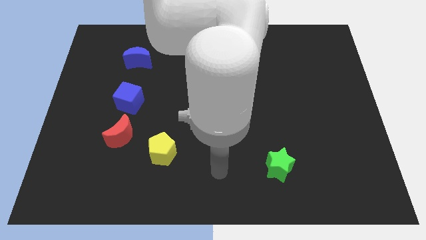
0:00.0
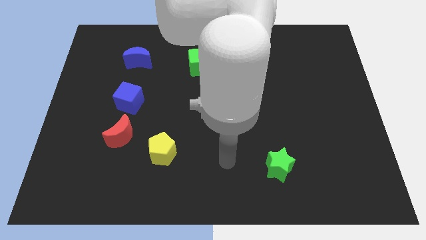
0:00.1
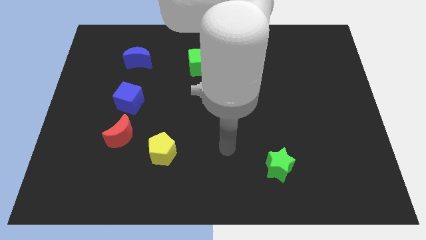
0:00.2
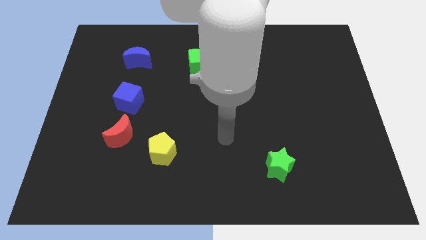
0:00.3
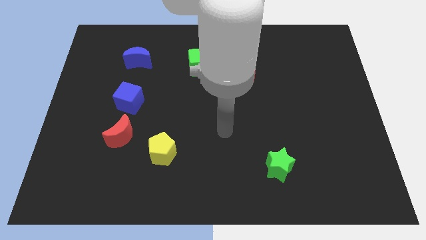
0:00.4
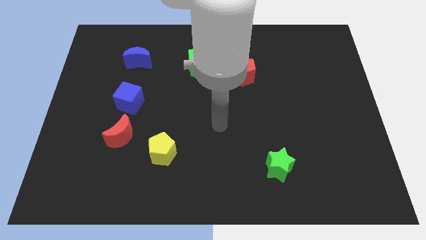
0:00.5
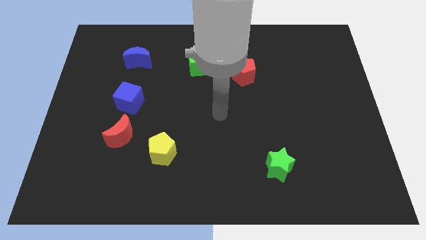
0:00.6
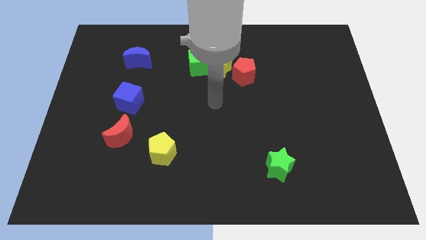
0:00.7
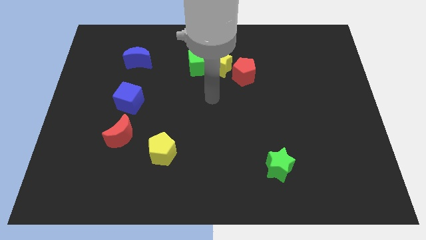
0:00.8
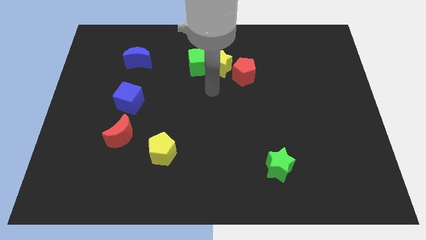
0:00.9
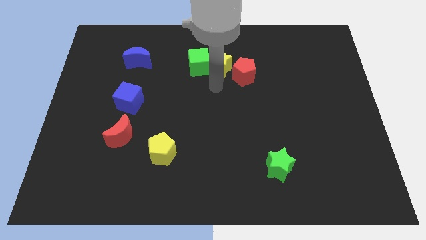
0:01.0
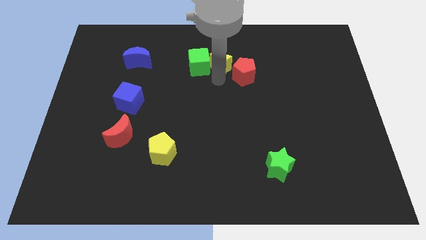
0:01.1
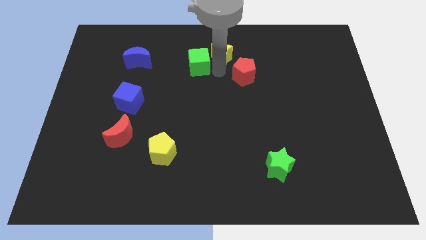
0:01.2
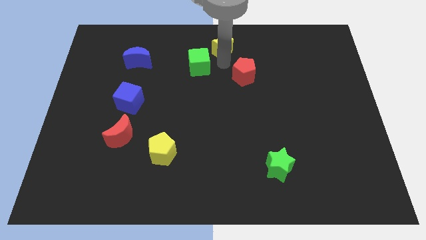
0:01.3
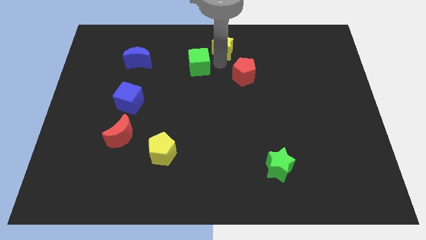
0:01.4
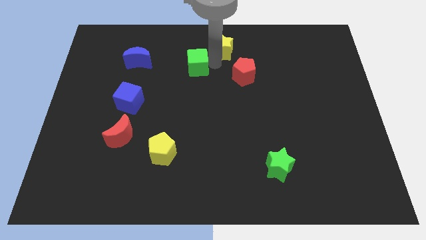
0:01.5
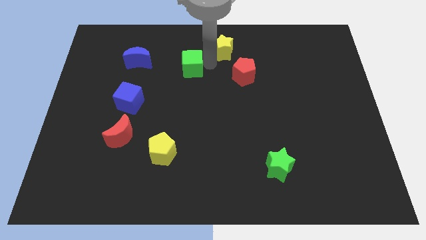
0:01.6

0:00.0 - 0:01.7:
separate the green cube from the yellow star

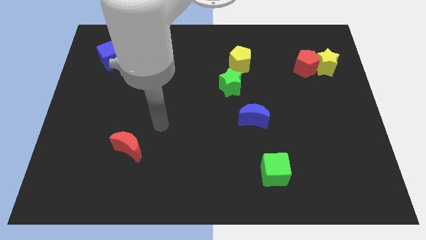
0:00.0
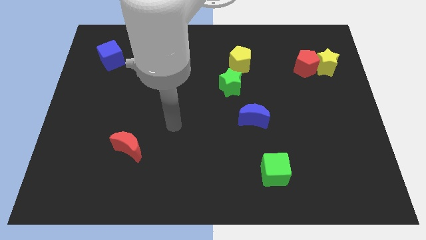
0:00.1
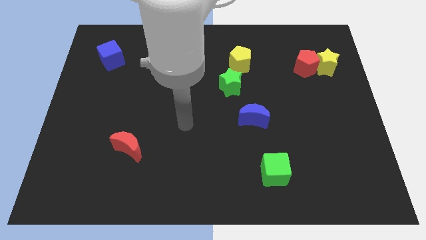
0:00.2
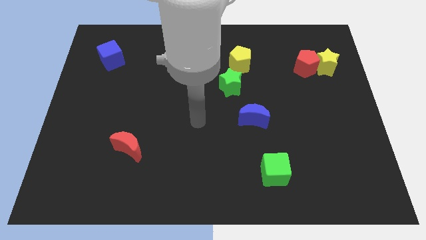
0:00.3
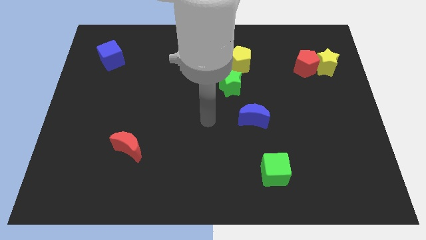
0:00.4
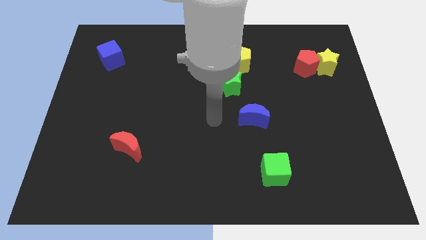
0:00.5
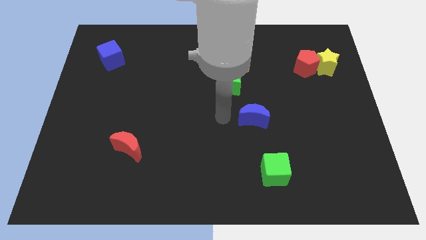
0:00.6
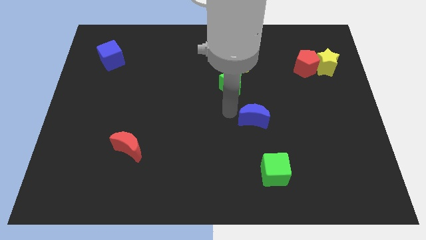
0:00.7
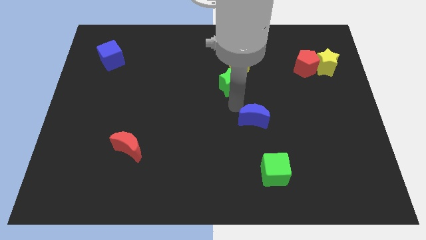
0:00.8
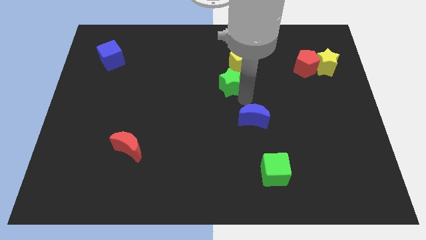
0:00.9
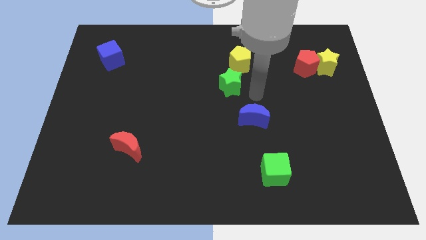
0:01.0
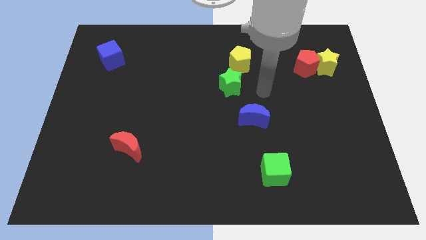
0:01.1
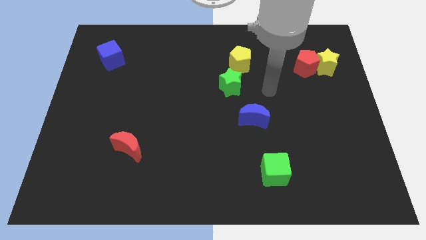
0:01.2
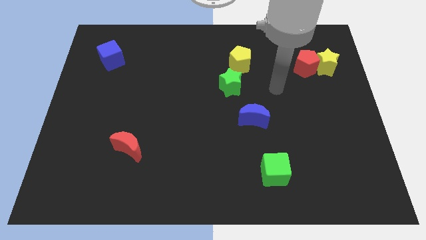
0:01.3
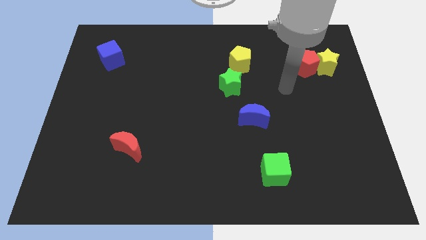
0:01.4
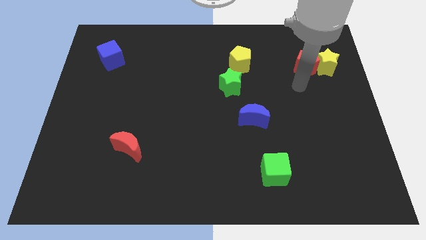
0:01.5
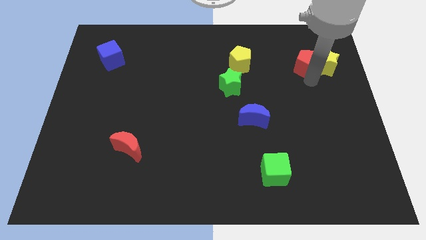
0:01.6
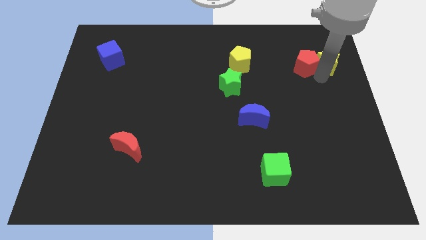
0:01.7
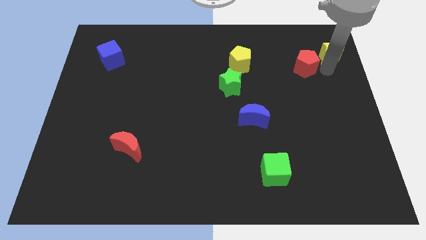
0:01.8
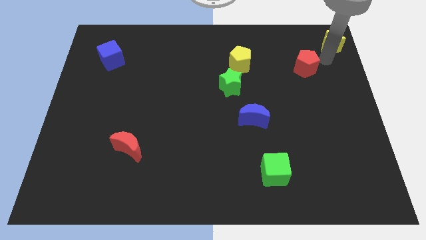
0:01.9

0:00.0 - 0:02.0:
pull the red pentagon apart from the yellow star

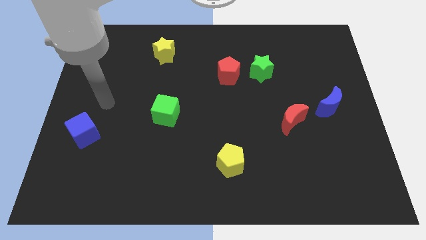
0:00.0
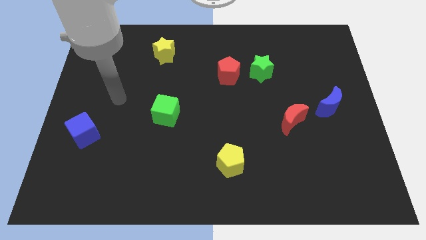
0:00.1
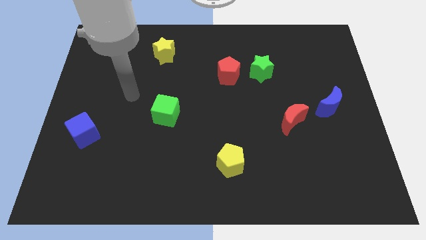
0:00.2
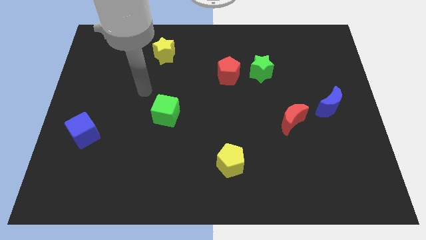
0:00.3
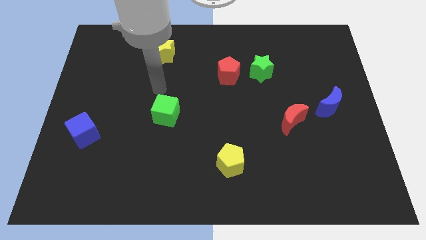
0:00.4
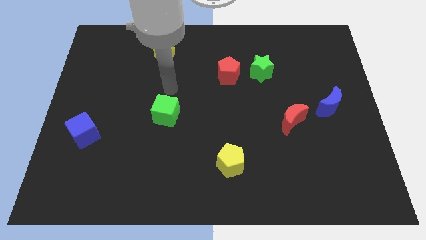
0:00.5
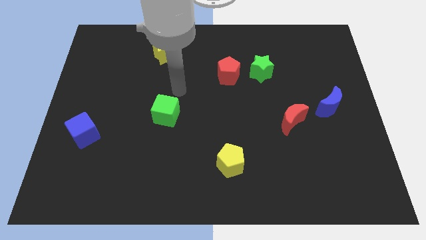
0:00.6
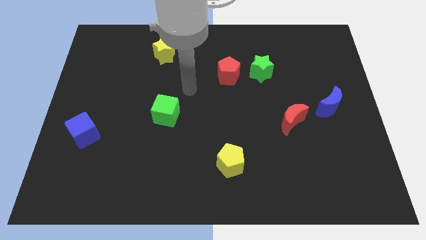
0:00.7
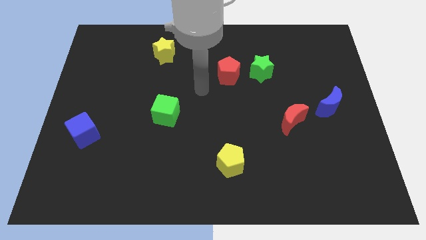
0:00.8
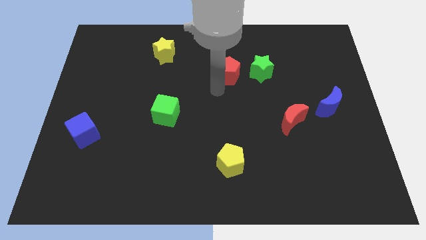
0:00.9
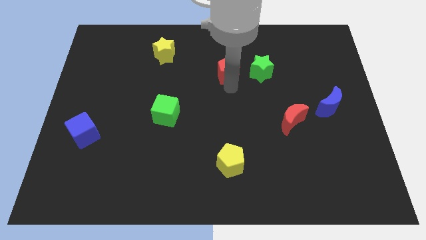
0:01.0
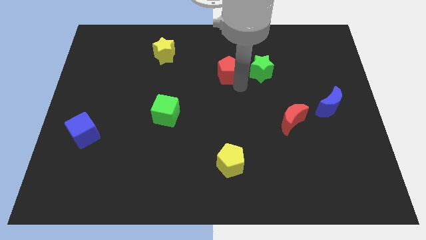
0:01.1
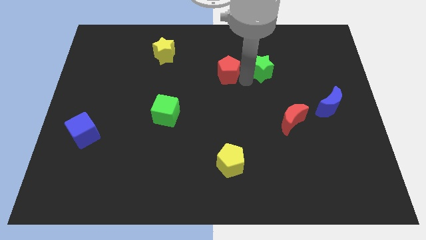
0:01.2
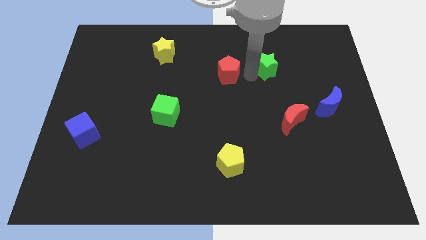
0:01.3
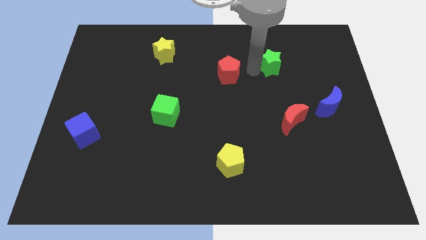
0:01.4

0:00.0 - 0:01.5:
pull the red pentagon apart from the green star

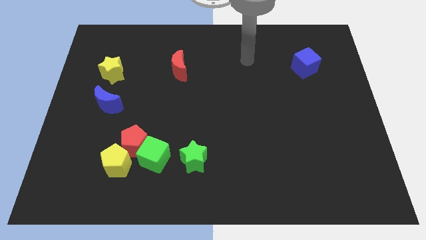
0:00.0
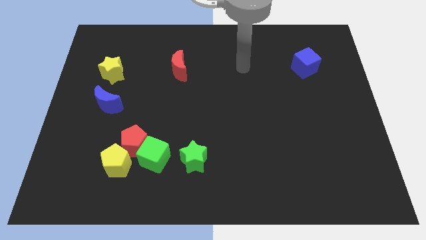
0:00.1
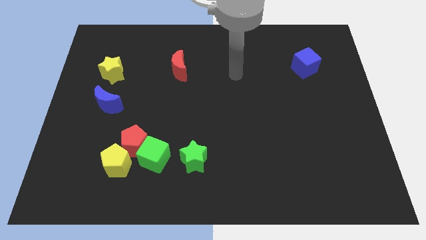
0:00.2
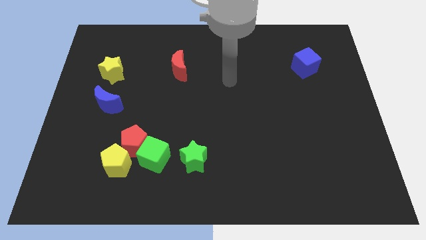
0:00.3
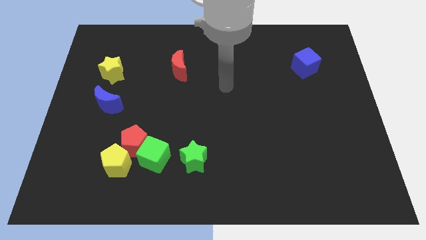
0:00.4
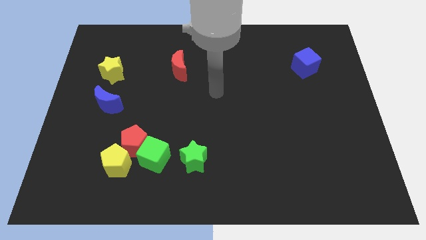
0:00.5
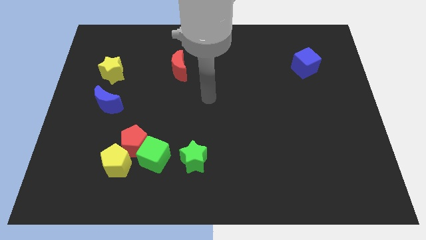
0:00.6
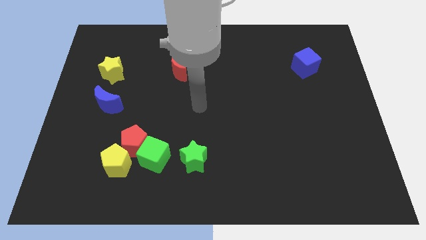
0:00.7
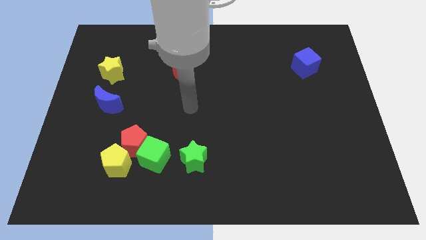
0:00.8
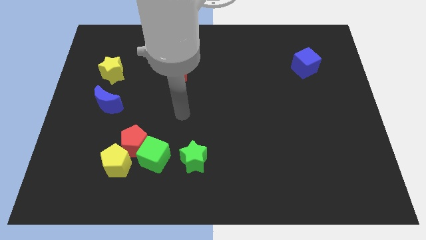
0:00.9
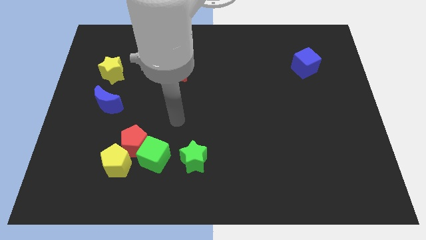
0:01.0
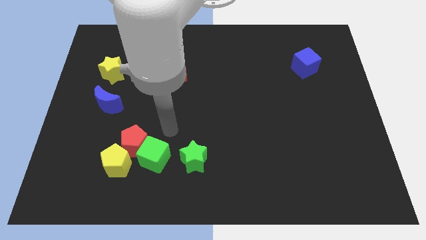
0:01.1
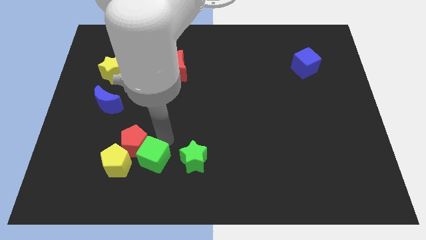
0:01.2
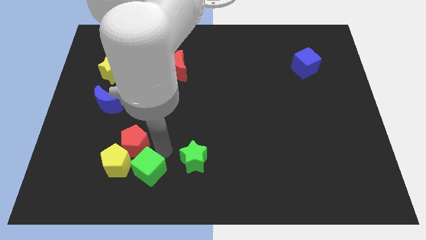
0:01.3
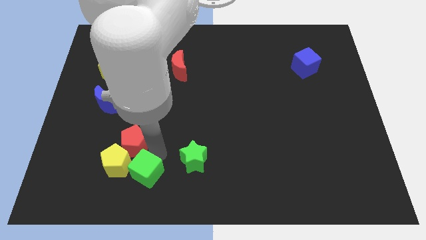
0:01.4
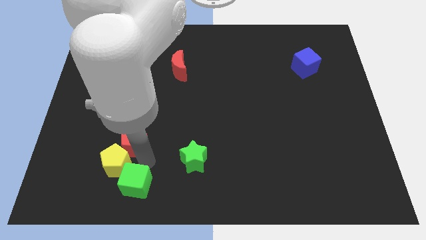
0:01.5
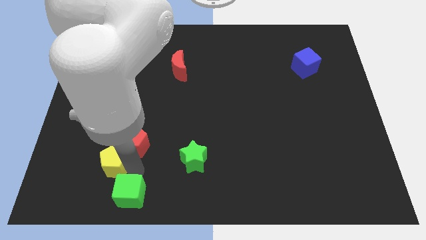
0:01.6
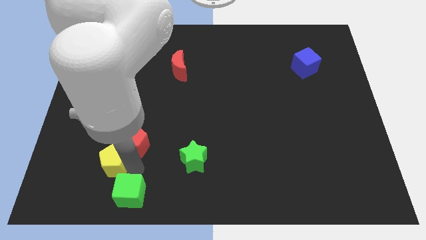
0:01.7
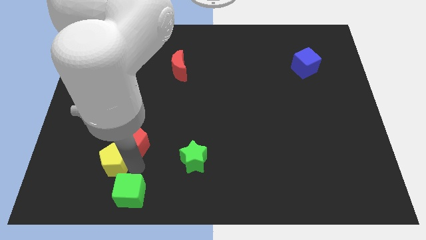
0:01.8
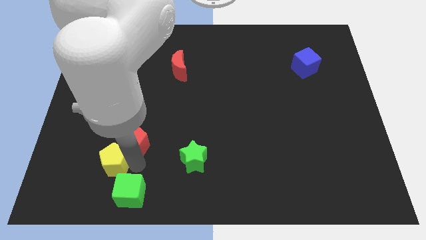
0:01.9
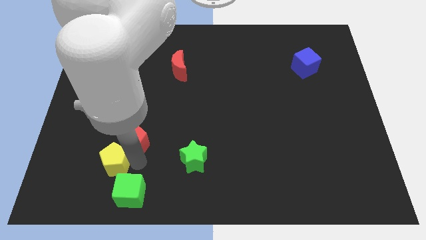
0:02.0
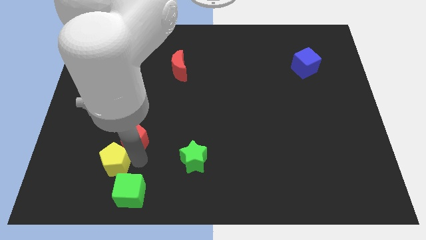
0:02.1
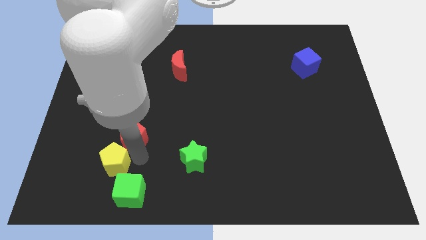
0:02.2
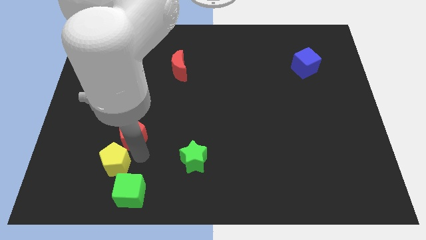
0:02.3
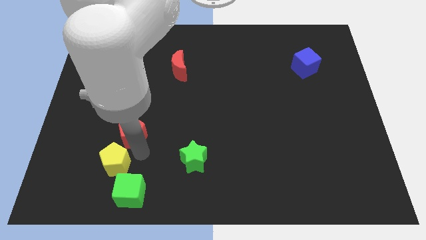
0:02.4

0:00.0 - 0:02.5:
move the red pentagon away from the green cube and yellow pentagon

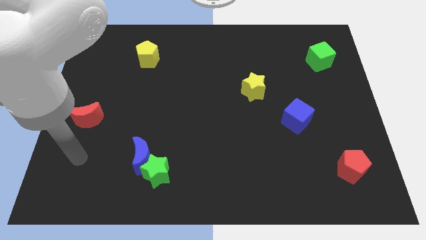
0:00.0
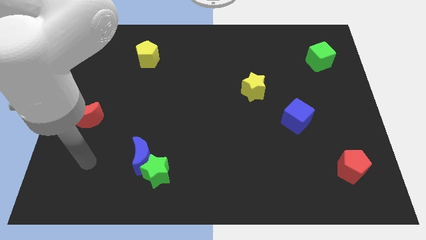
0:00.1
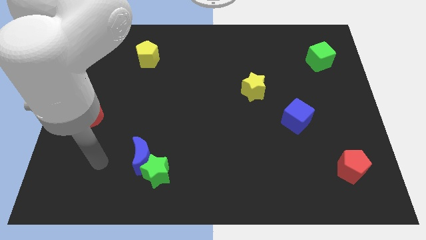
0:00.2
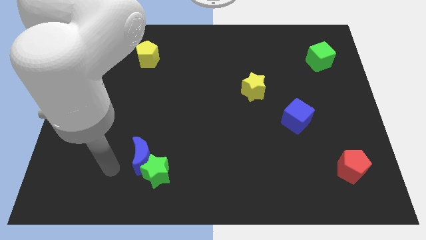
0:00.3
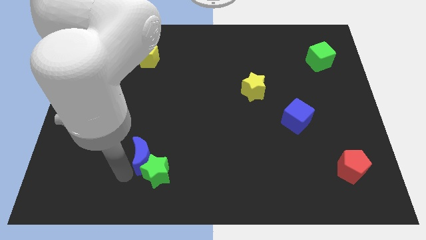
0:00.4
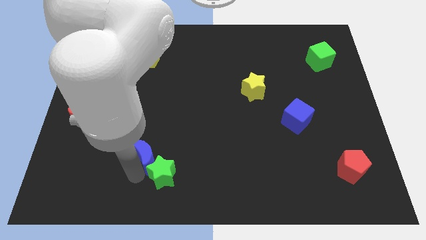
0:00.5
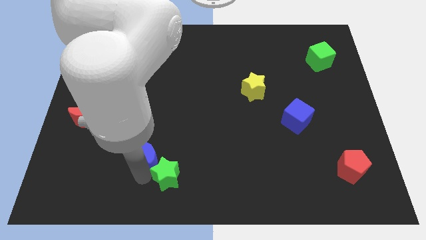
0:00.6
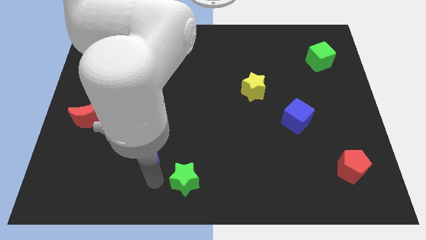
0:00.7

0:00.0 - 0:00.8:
pull the blue moon apart from the green star

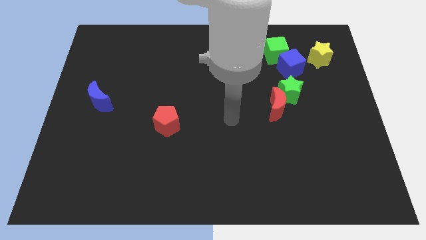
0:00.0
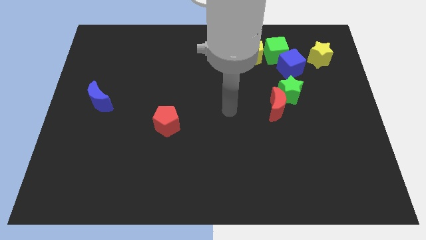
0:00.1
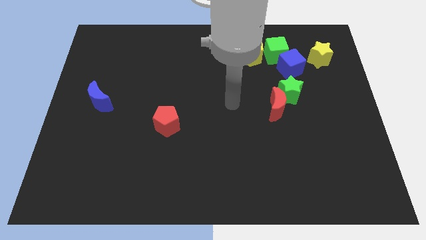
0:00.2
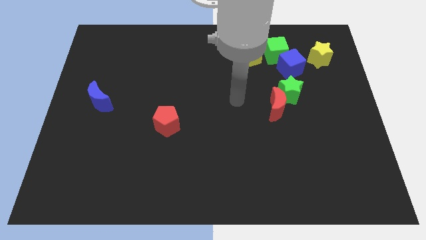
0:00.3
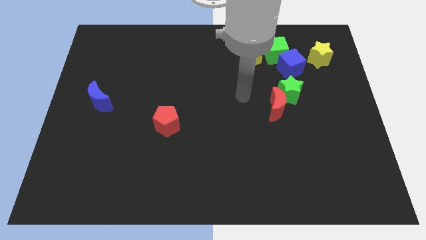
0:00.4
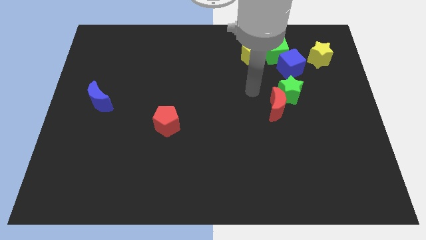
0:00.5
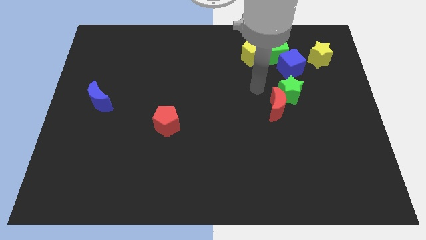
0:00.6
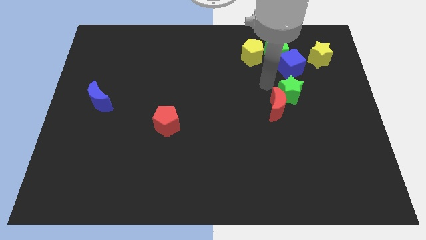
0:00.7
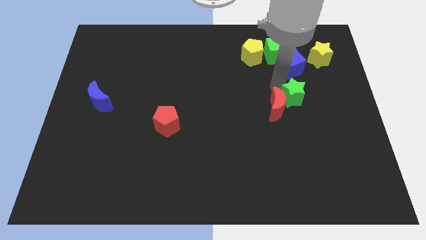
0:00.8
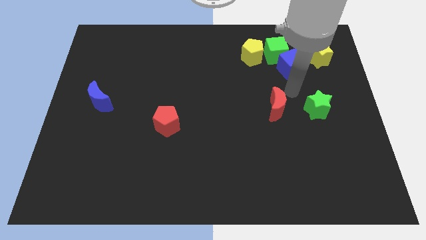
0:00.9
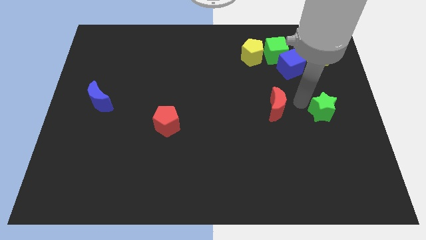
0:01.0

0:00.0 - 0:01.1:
separate the red moon from the green star
